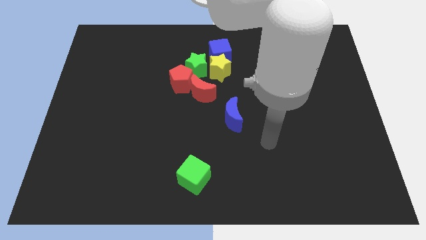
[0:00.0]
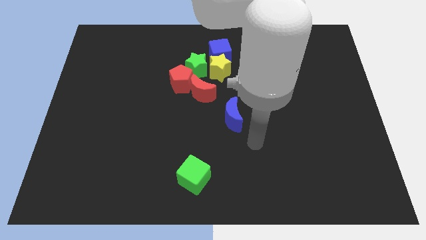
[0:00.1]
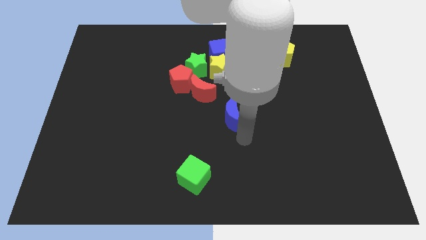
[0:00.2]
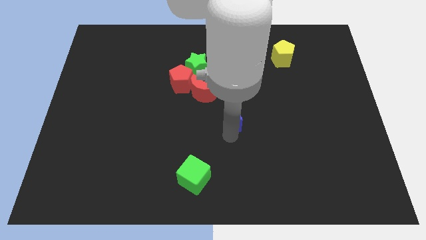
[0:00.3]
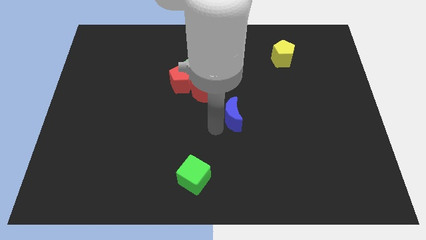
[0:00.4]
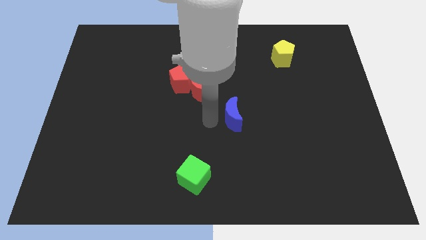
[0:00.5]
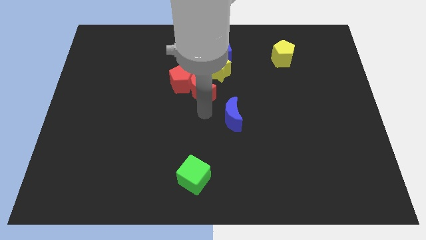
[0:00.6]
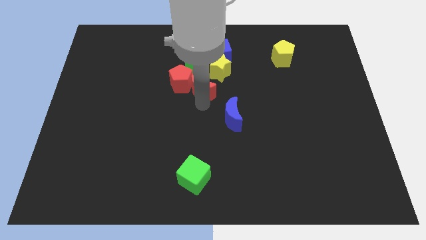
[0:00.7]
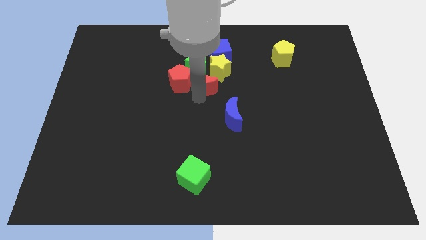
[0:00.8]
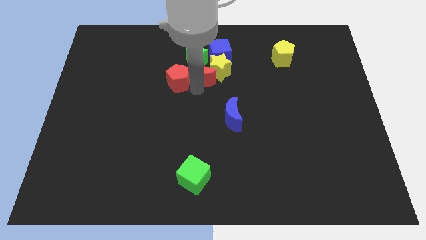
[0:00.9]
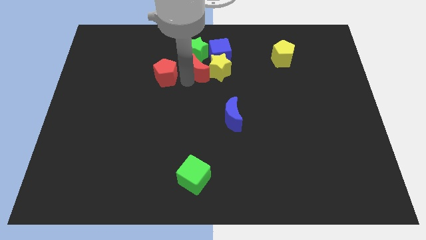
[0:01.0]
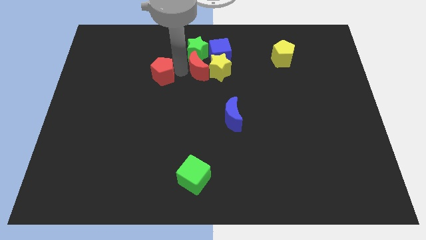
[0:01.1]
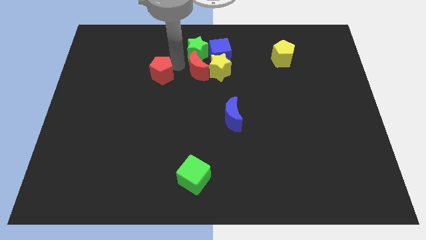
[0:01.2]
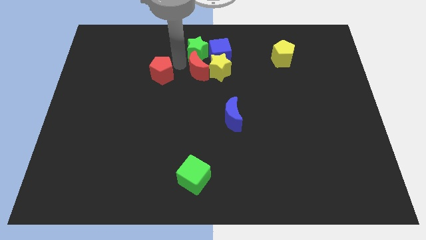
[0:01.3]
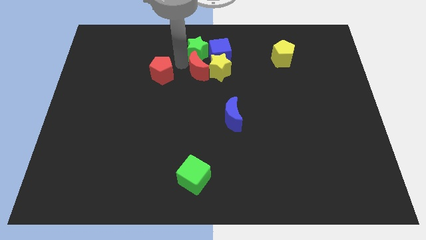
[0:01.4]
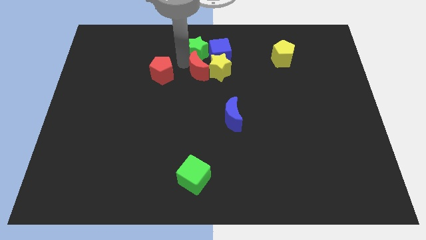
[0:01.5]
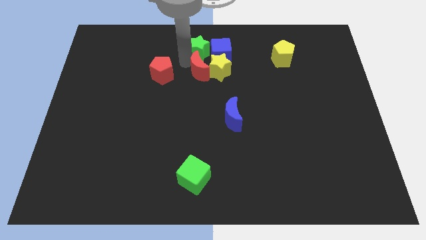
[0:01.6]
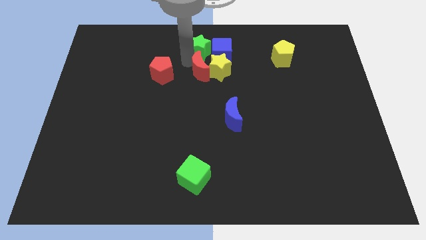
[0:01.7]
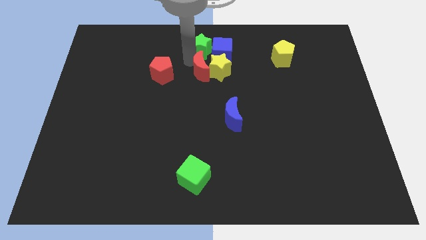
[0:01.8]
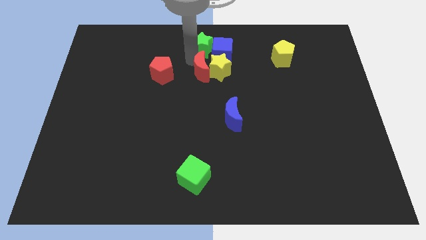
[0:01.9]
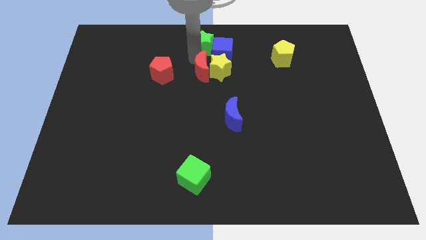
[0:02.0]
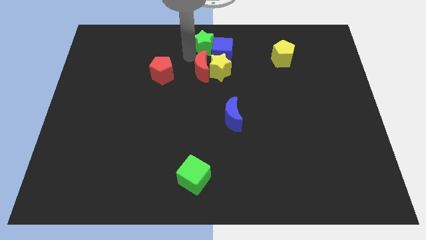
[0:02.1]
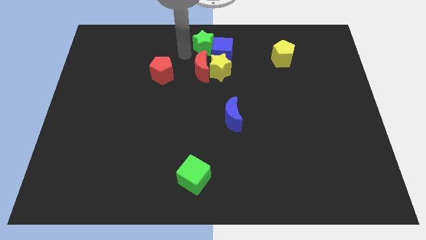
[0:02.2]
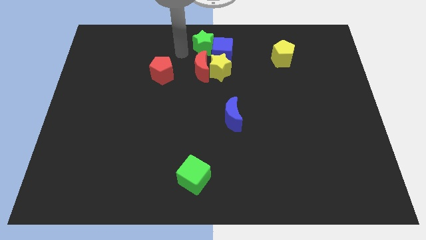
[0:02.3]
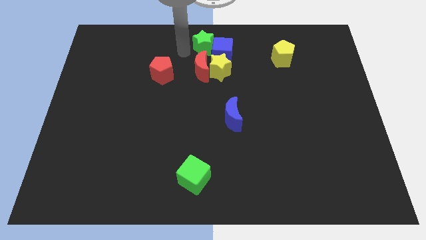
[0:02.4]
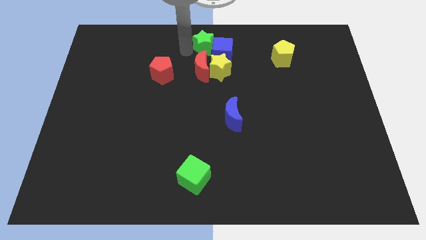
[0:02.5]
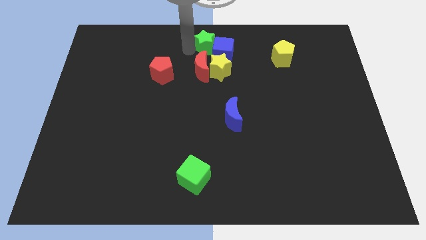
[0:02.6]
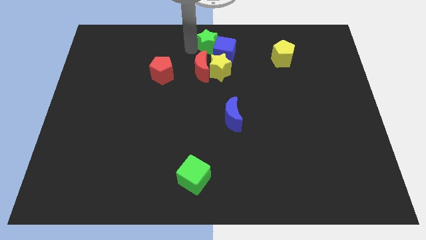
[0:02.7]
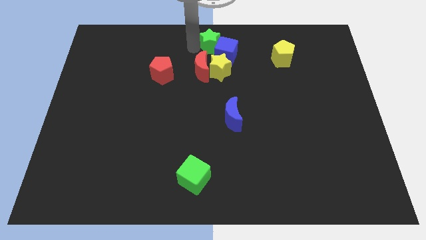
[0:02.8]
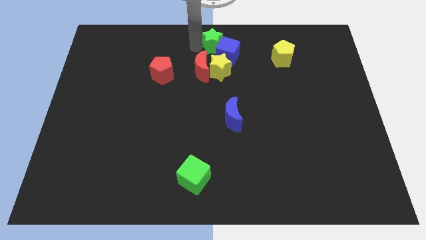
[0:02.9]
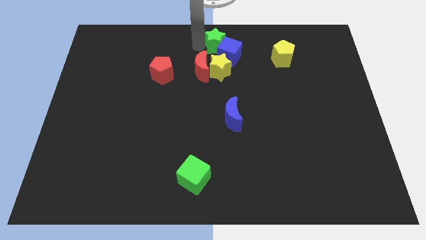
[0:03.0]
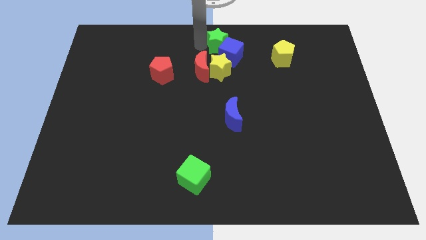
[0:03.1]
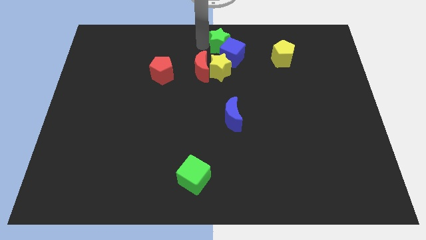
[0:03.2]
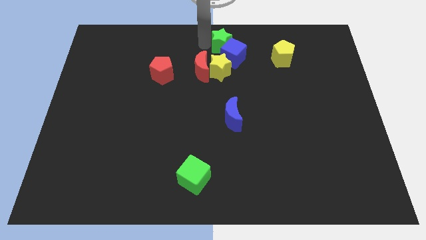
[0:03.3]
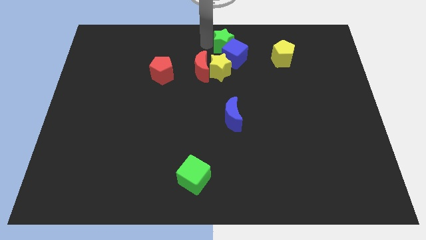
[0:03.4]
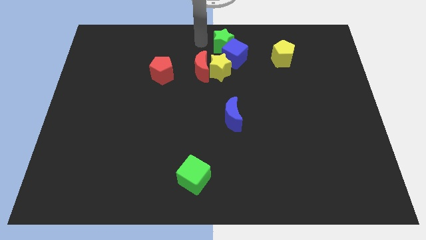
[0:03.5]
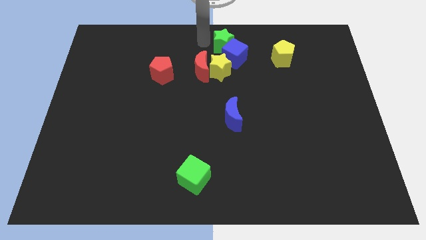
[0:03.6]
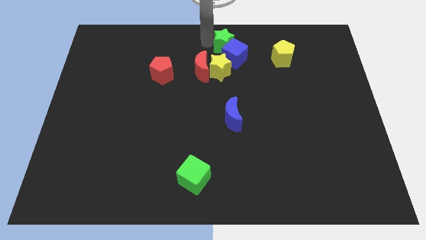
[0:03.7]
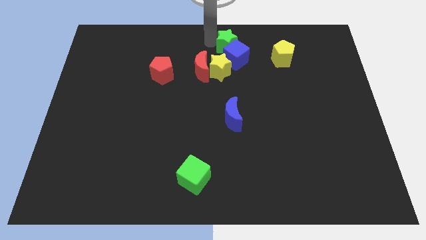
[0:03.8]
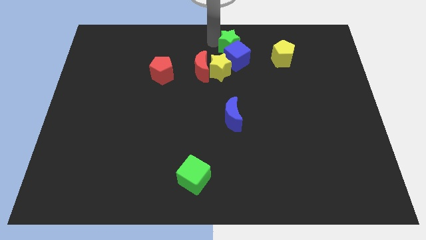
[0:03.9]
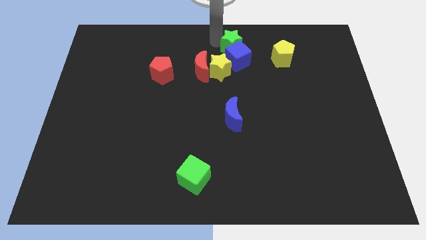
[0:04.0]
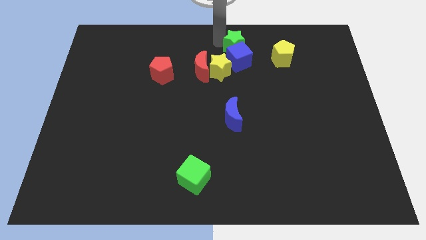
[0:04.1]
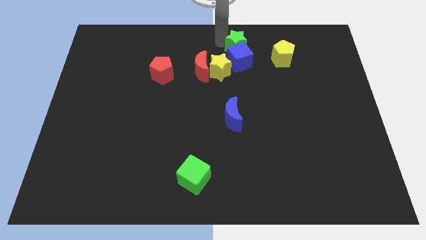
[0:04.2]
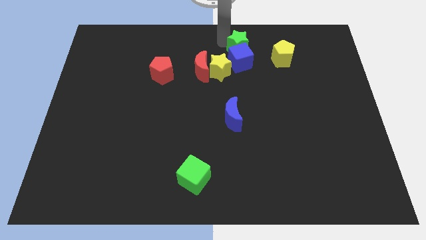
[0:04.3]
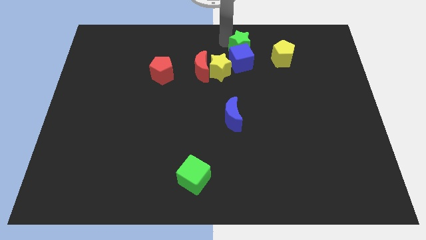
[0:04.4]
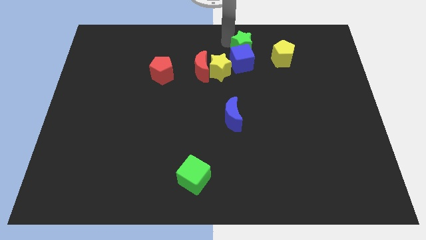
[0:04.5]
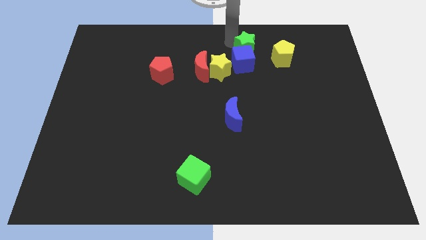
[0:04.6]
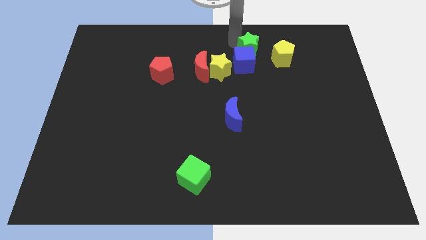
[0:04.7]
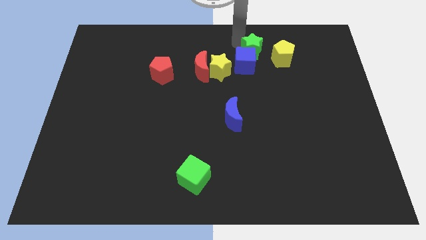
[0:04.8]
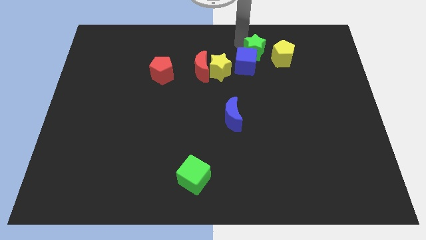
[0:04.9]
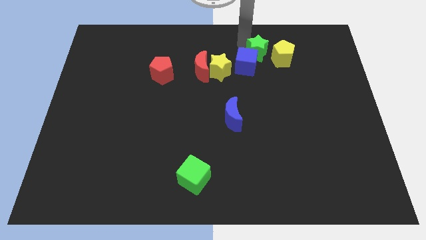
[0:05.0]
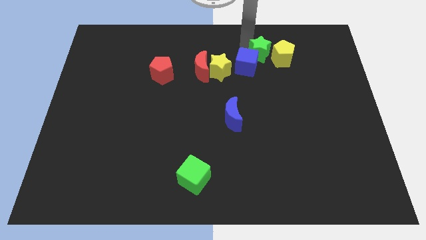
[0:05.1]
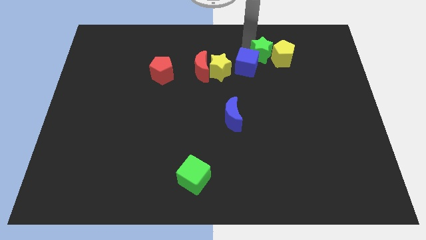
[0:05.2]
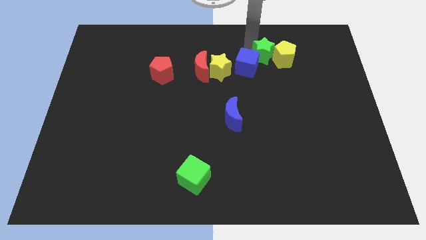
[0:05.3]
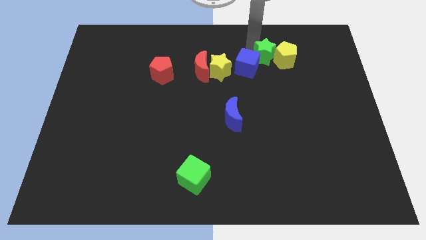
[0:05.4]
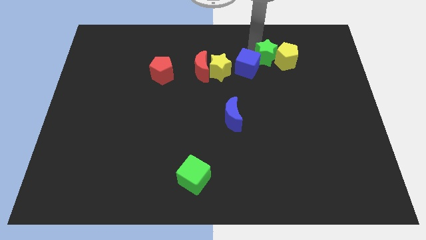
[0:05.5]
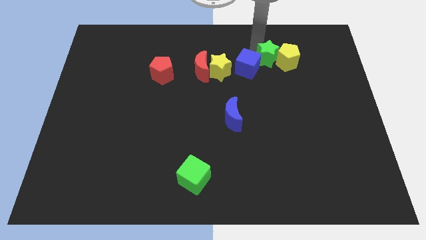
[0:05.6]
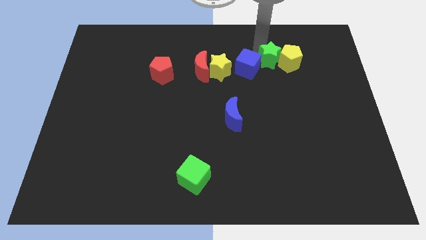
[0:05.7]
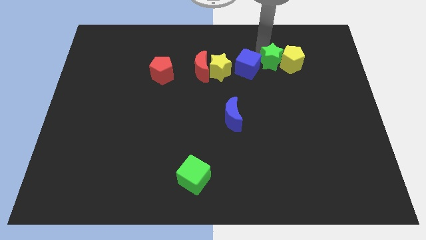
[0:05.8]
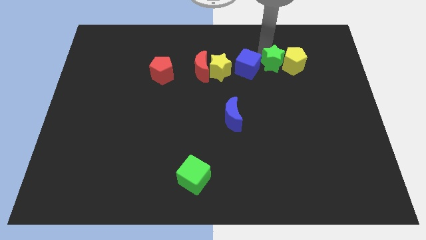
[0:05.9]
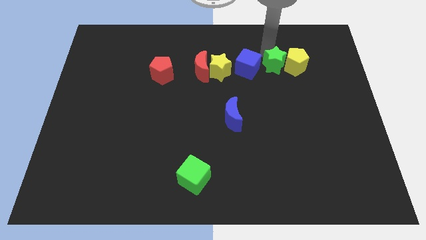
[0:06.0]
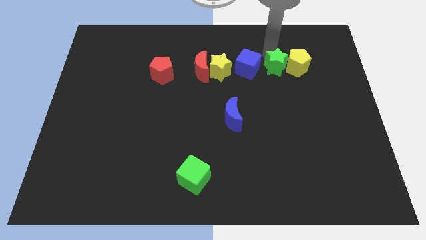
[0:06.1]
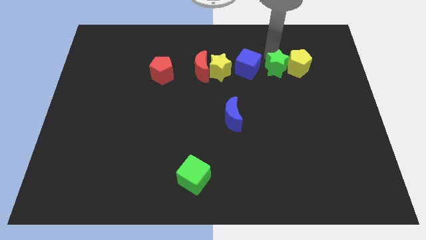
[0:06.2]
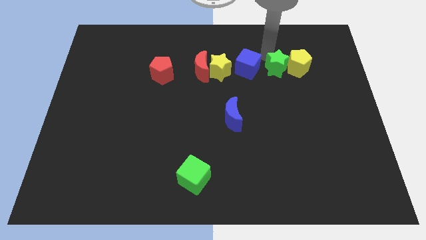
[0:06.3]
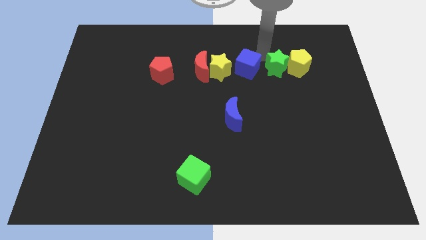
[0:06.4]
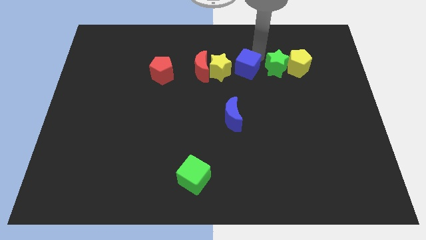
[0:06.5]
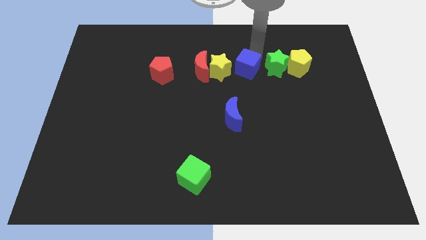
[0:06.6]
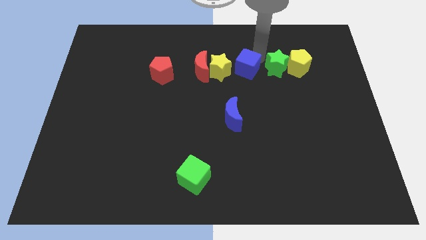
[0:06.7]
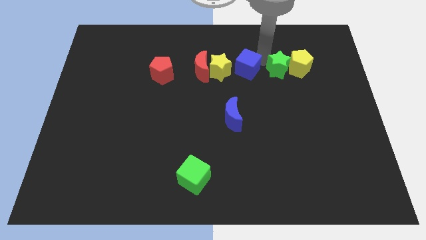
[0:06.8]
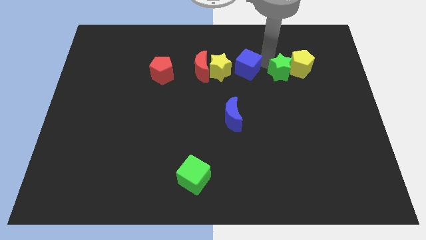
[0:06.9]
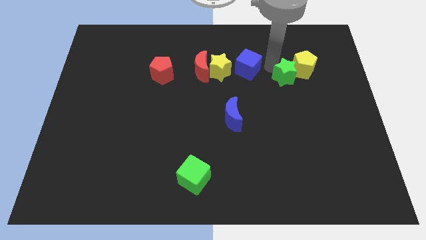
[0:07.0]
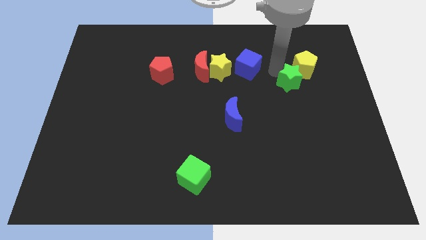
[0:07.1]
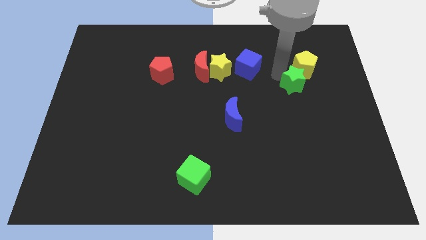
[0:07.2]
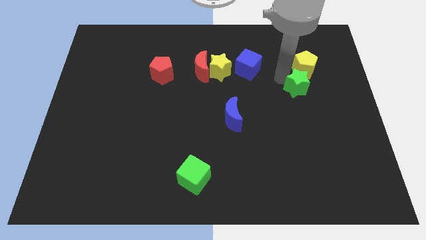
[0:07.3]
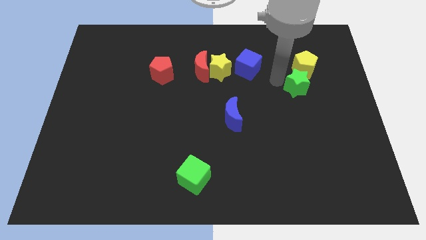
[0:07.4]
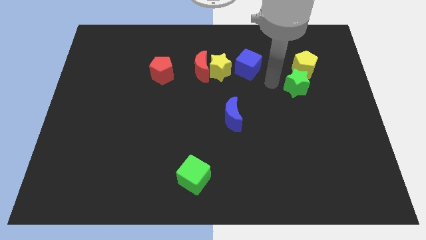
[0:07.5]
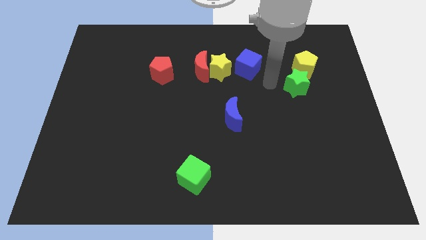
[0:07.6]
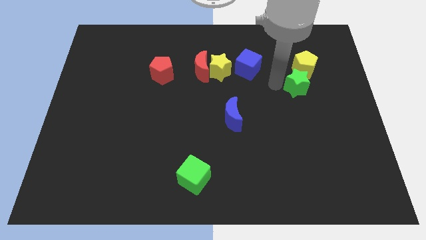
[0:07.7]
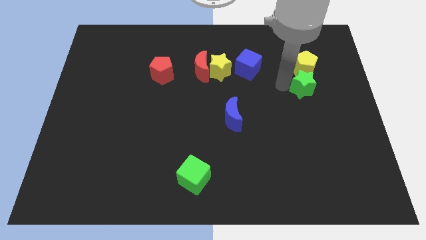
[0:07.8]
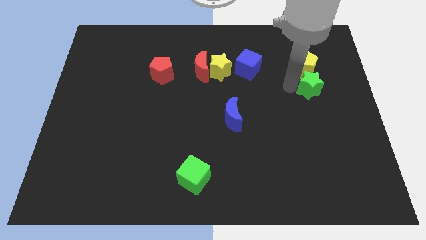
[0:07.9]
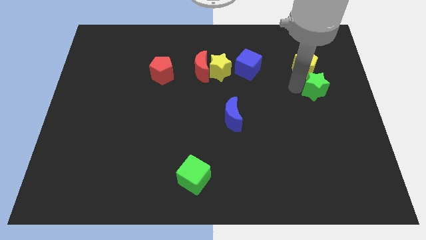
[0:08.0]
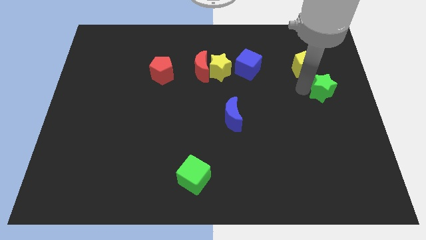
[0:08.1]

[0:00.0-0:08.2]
move the green star to the center right
